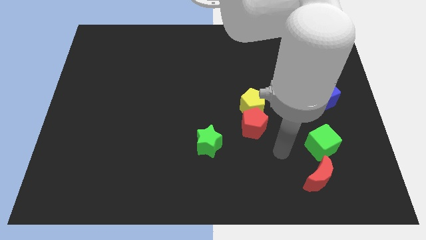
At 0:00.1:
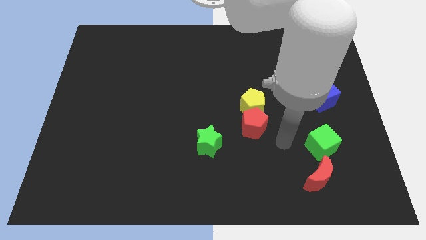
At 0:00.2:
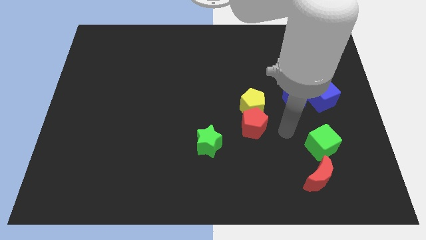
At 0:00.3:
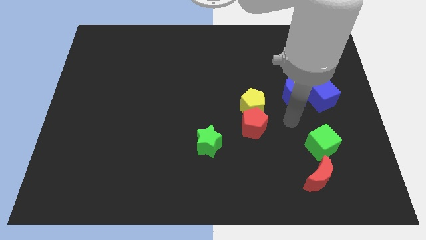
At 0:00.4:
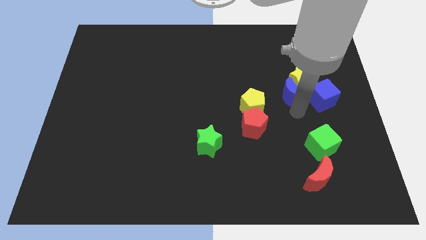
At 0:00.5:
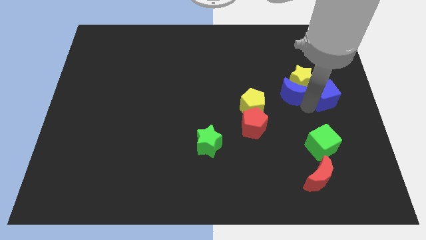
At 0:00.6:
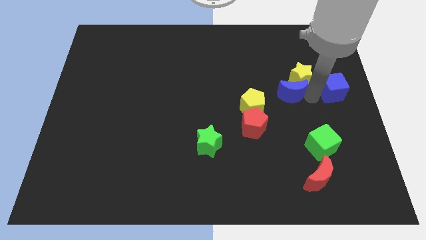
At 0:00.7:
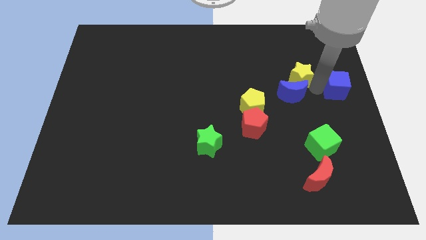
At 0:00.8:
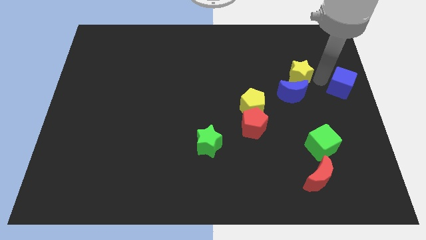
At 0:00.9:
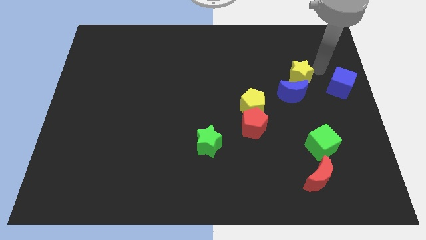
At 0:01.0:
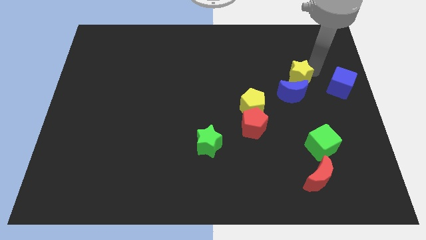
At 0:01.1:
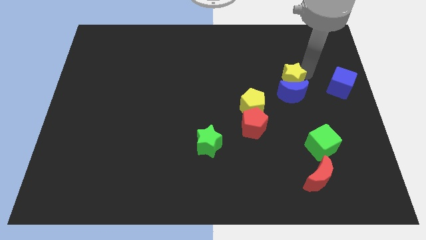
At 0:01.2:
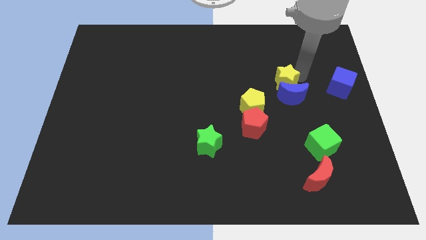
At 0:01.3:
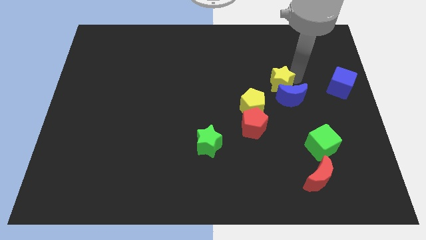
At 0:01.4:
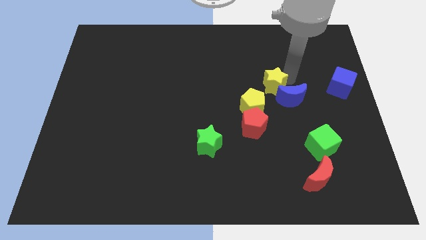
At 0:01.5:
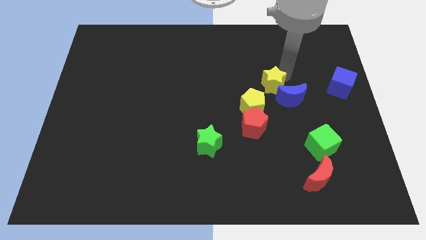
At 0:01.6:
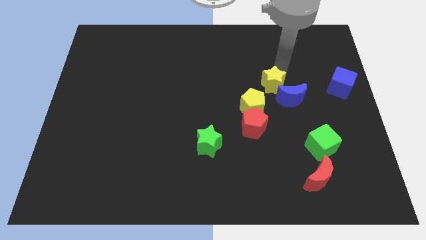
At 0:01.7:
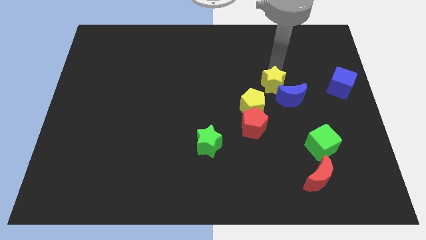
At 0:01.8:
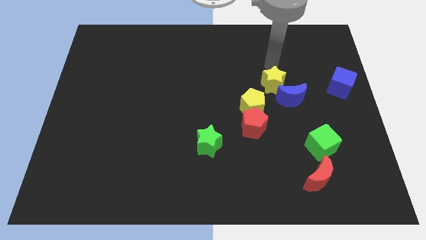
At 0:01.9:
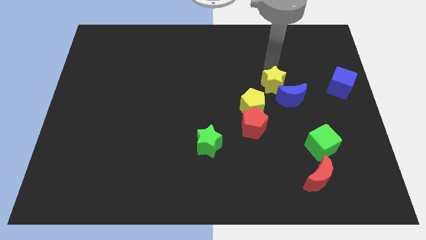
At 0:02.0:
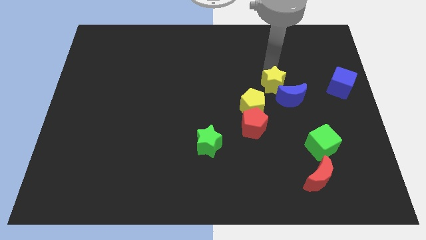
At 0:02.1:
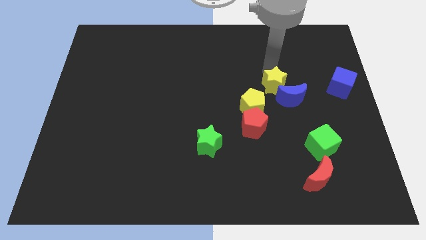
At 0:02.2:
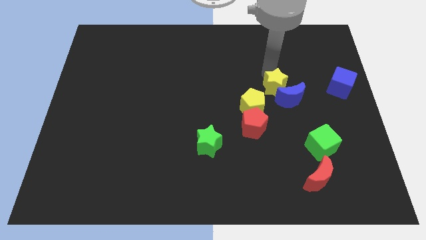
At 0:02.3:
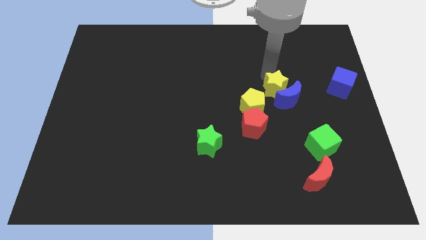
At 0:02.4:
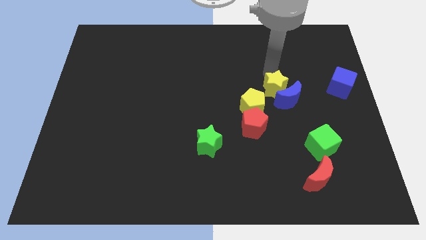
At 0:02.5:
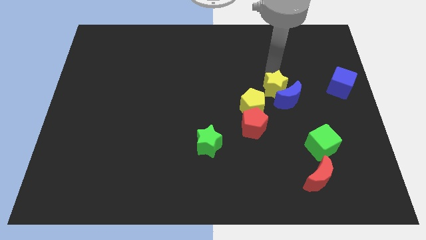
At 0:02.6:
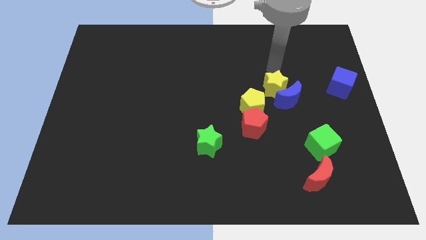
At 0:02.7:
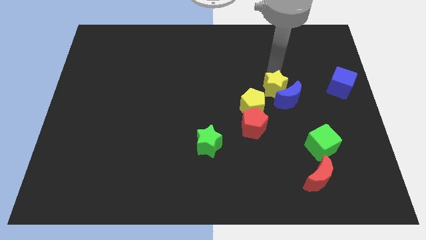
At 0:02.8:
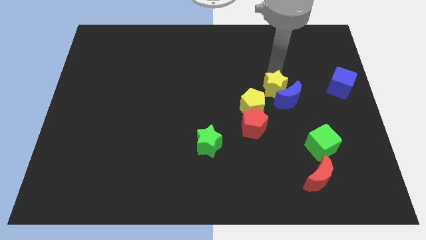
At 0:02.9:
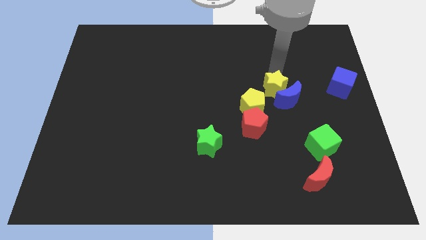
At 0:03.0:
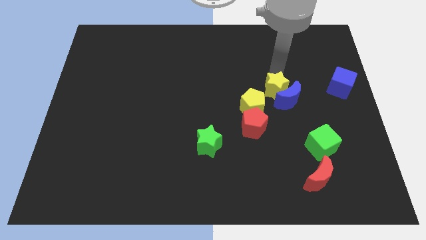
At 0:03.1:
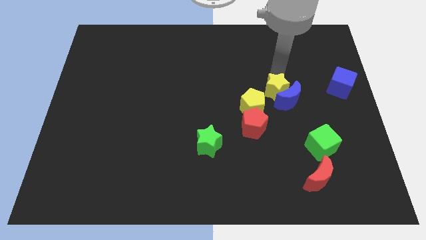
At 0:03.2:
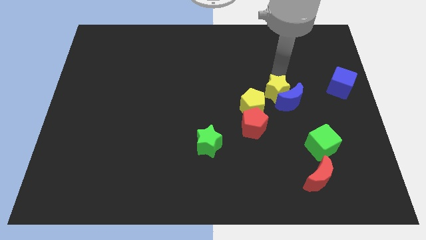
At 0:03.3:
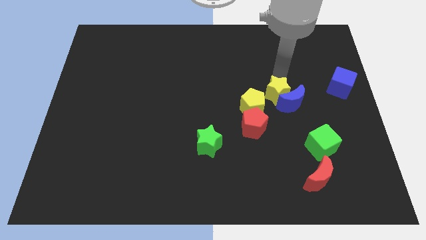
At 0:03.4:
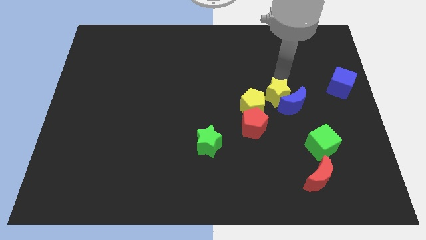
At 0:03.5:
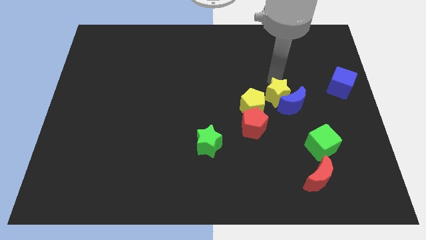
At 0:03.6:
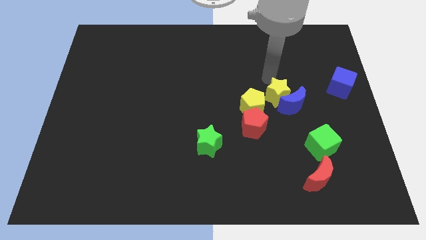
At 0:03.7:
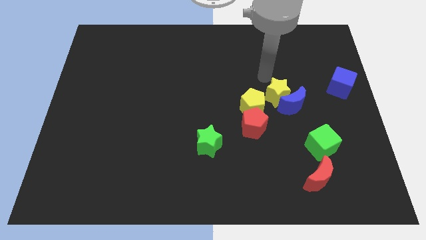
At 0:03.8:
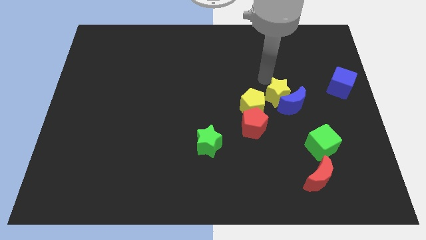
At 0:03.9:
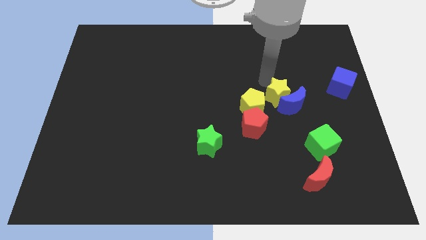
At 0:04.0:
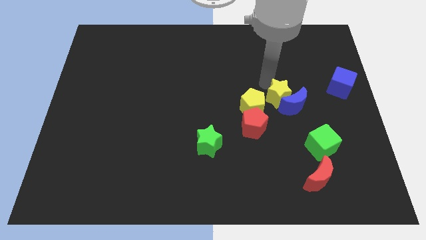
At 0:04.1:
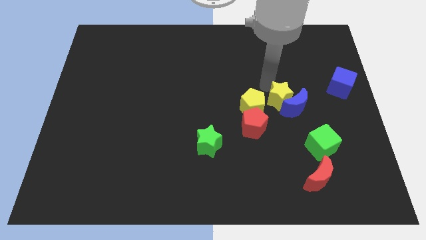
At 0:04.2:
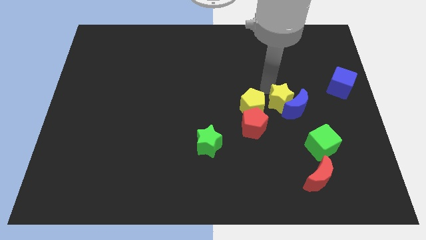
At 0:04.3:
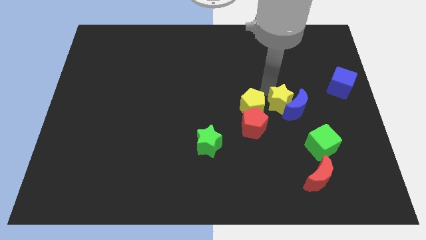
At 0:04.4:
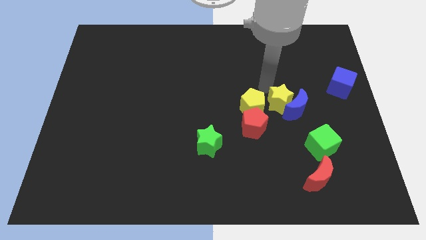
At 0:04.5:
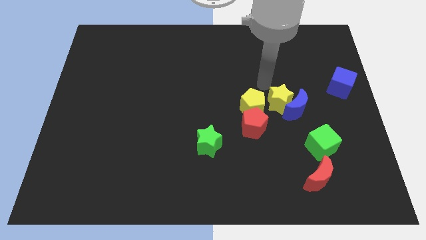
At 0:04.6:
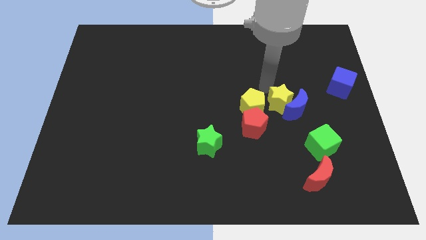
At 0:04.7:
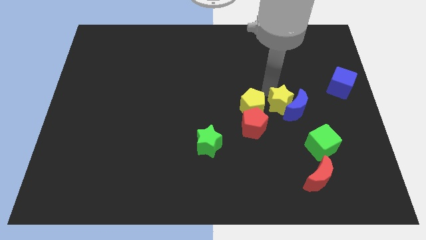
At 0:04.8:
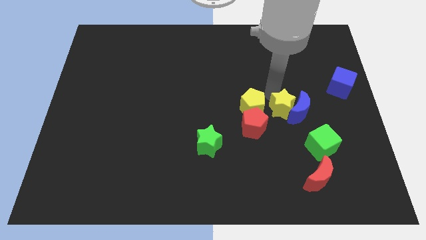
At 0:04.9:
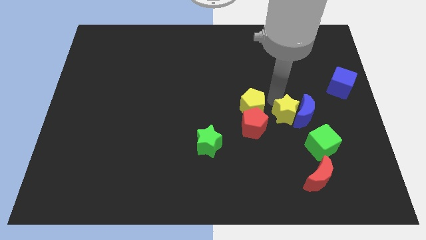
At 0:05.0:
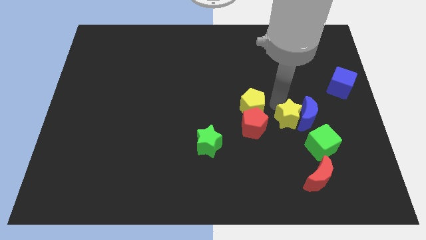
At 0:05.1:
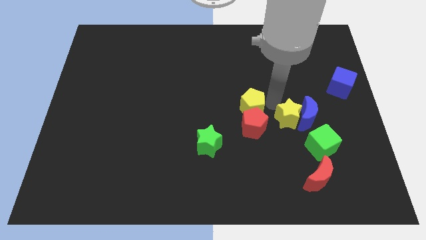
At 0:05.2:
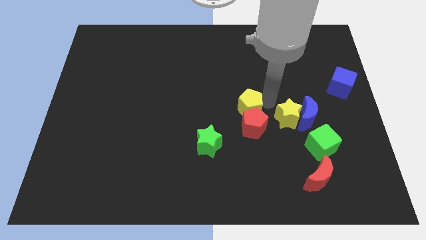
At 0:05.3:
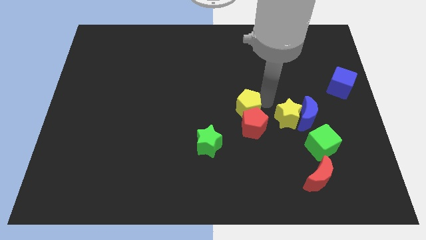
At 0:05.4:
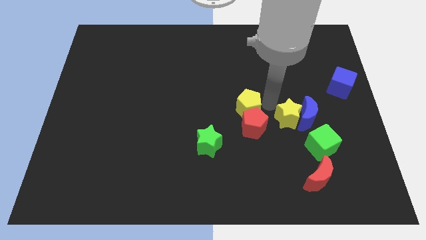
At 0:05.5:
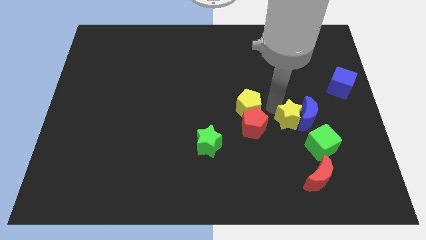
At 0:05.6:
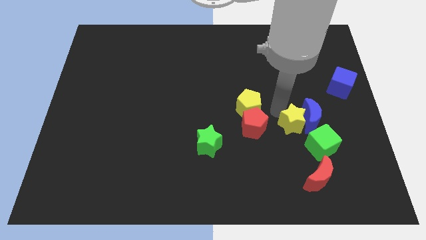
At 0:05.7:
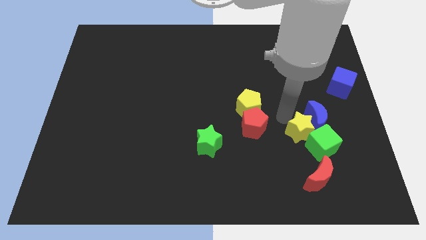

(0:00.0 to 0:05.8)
put the yellow star towards the green cube

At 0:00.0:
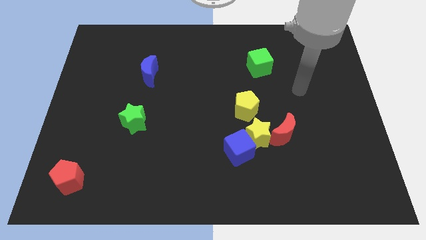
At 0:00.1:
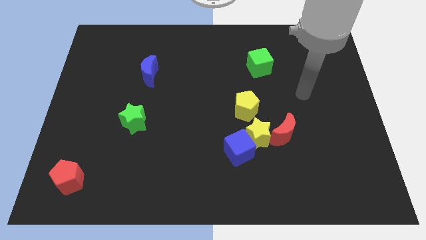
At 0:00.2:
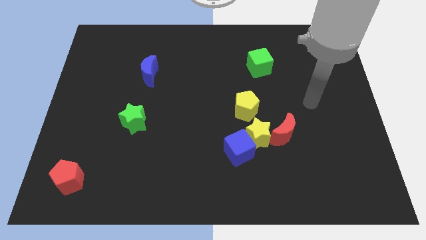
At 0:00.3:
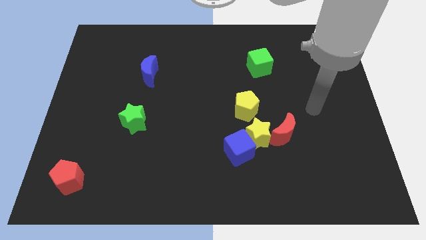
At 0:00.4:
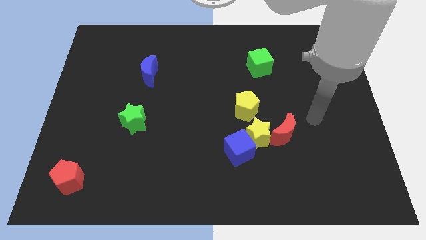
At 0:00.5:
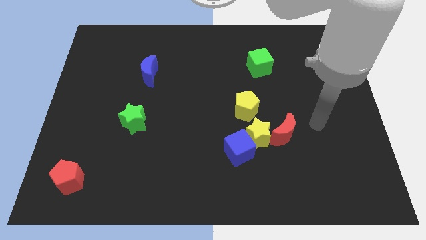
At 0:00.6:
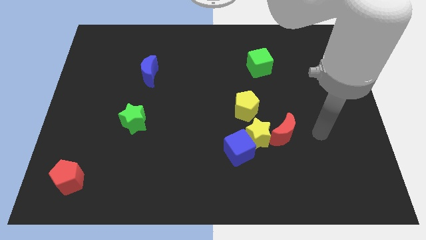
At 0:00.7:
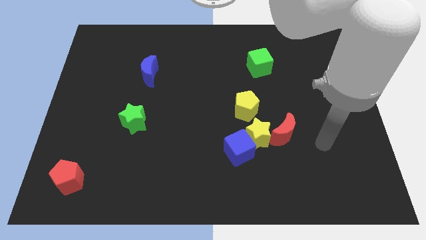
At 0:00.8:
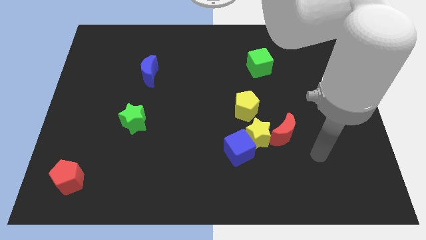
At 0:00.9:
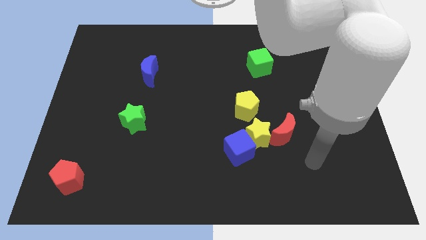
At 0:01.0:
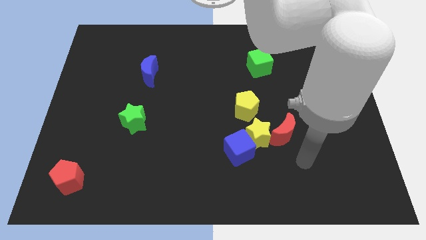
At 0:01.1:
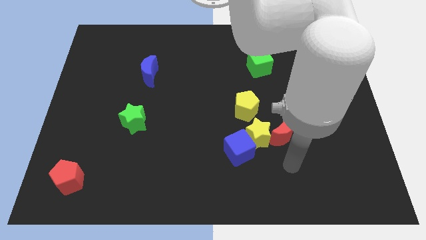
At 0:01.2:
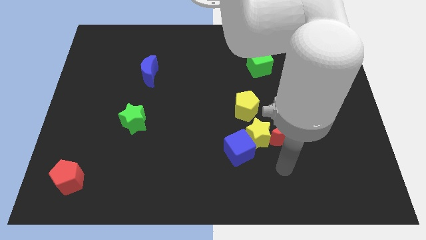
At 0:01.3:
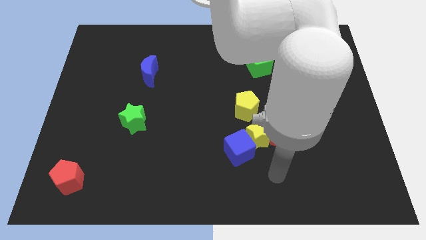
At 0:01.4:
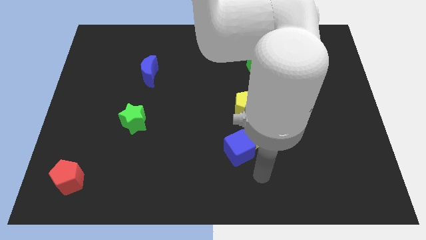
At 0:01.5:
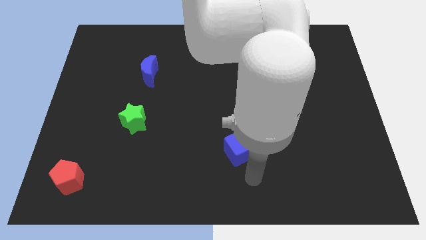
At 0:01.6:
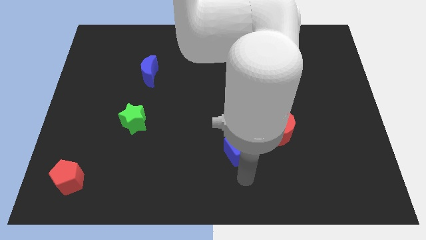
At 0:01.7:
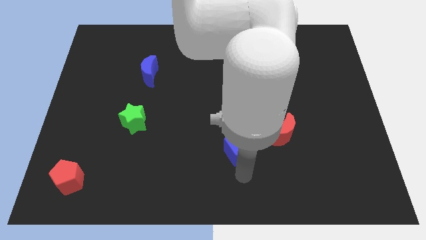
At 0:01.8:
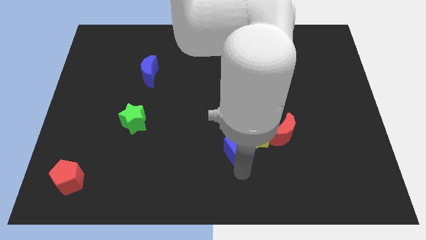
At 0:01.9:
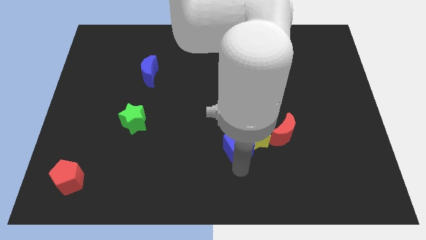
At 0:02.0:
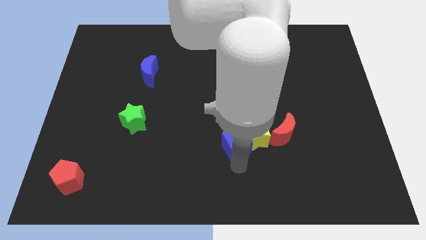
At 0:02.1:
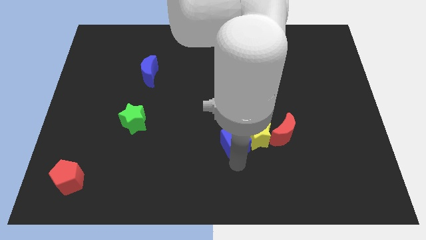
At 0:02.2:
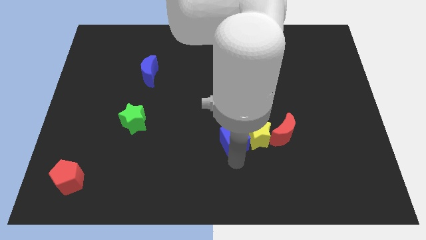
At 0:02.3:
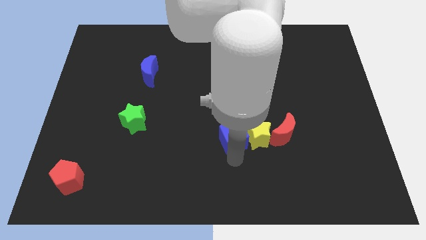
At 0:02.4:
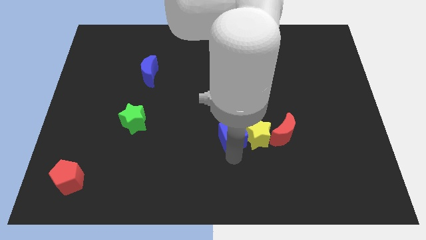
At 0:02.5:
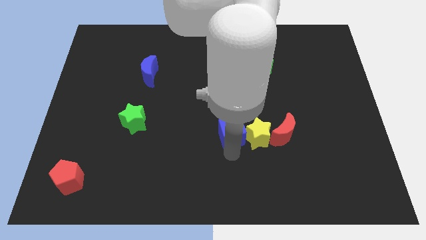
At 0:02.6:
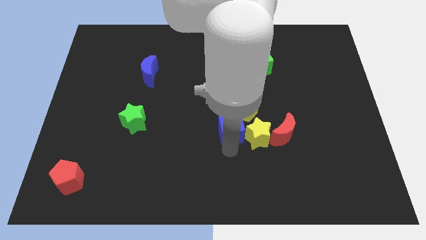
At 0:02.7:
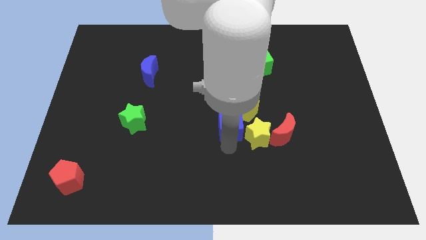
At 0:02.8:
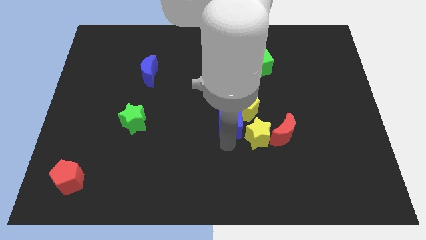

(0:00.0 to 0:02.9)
put the blue cube to the yellow pentagon
